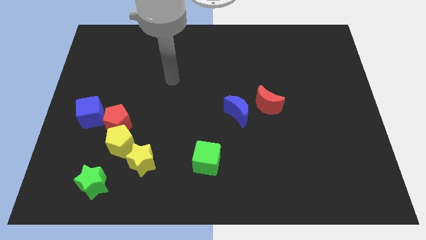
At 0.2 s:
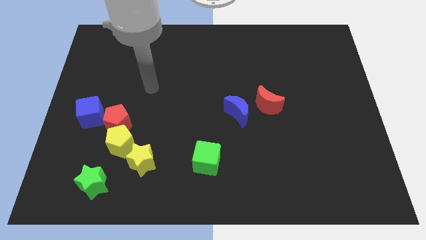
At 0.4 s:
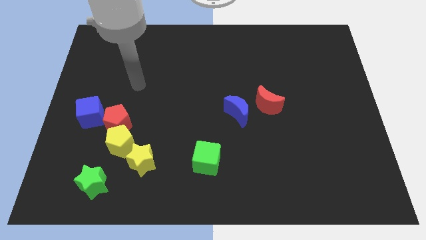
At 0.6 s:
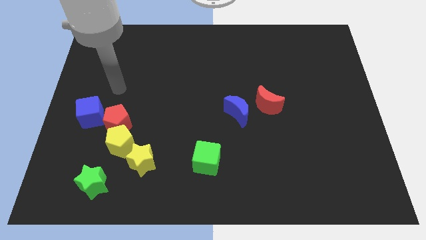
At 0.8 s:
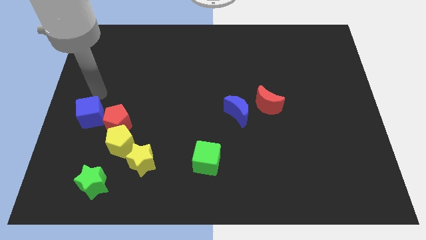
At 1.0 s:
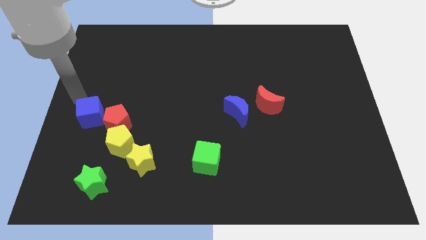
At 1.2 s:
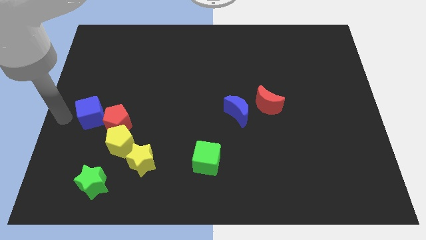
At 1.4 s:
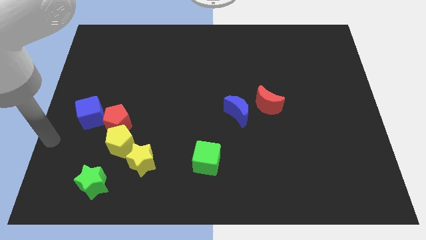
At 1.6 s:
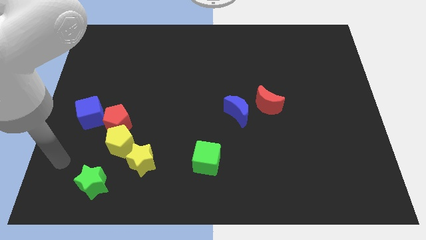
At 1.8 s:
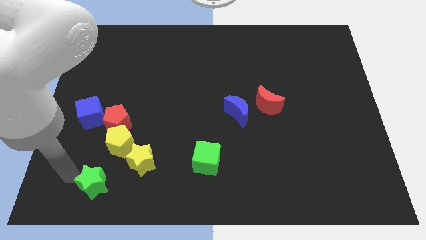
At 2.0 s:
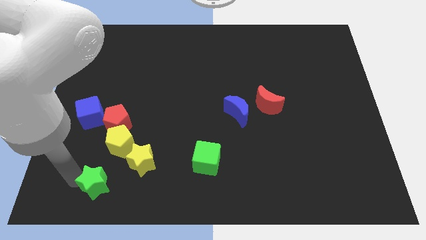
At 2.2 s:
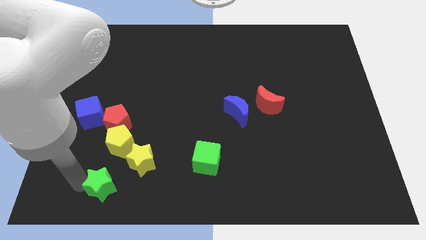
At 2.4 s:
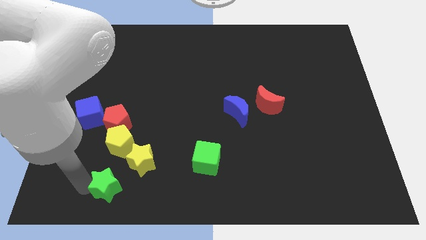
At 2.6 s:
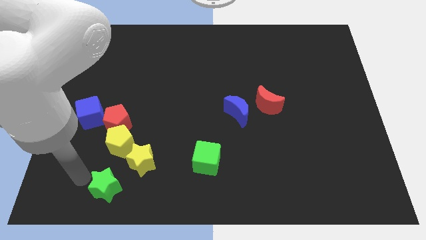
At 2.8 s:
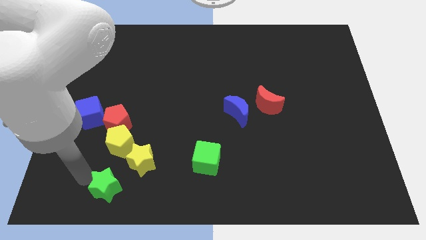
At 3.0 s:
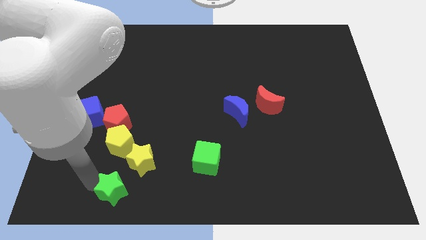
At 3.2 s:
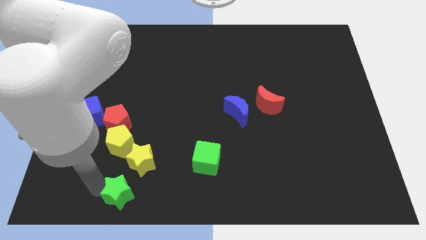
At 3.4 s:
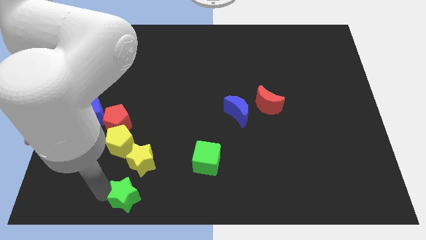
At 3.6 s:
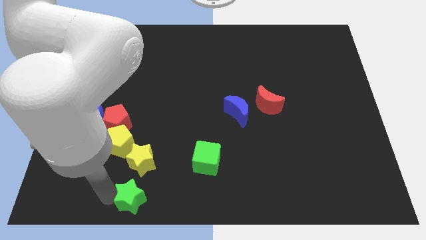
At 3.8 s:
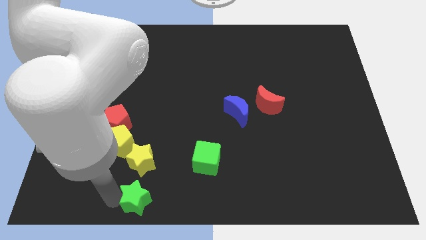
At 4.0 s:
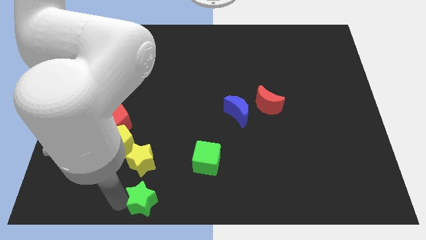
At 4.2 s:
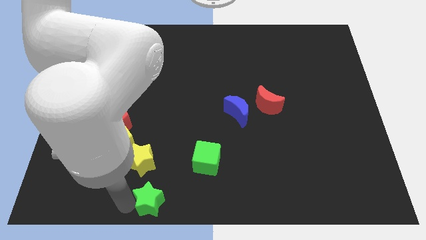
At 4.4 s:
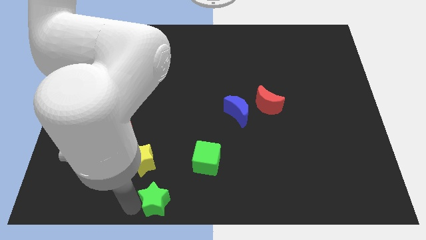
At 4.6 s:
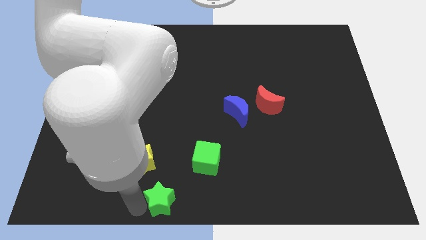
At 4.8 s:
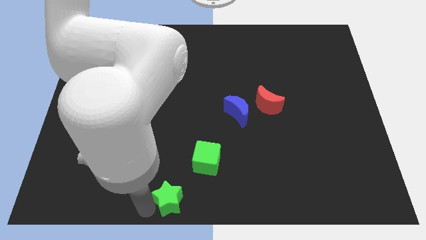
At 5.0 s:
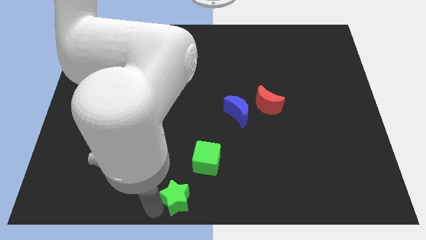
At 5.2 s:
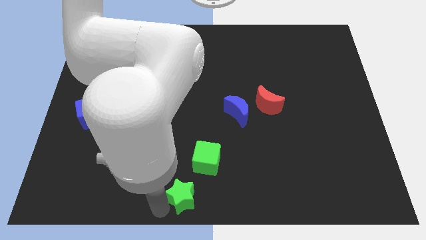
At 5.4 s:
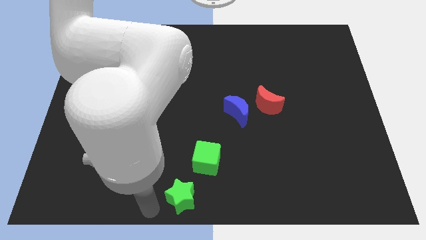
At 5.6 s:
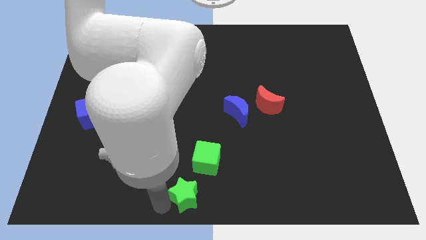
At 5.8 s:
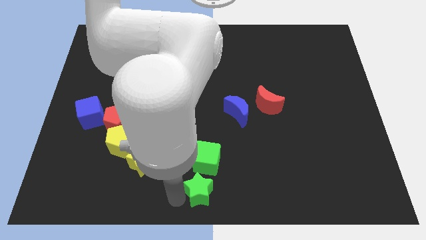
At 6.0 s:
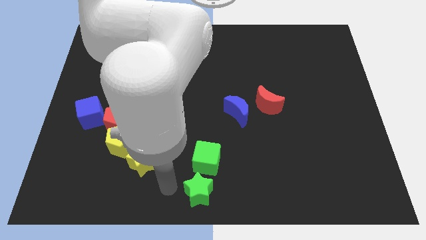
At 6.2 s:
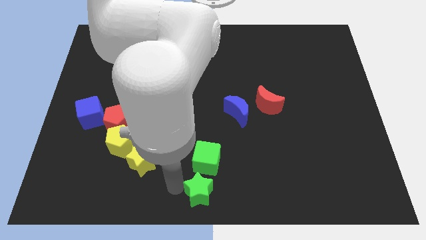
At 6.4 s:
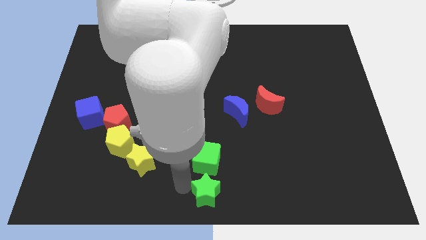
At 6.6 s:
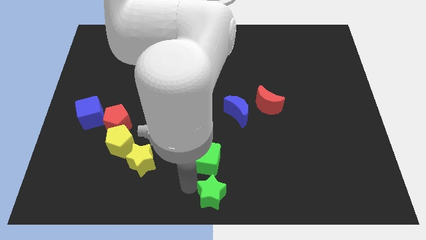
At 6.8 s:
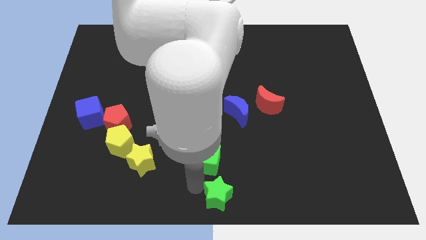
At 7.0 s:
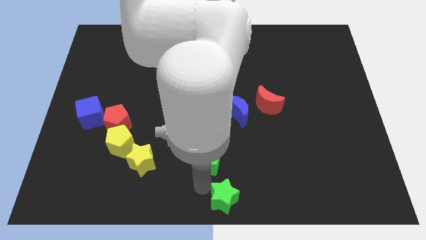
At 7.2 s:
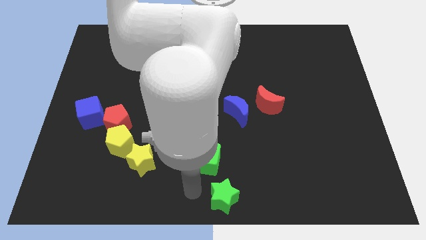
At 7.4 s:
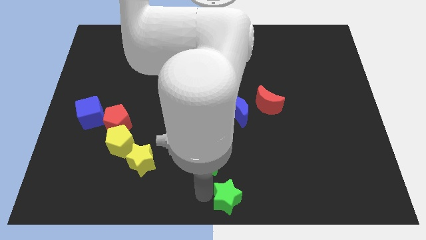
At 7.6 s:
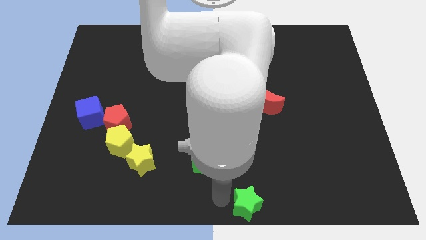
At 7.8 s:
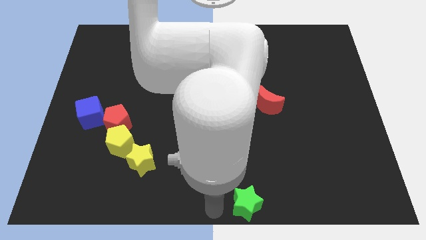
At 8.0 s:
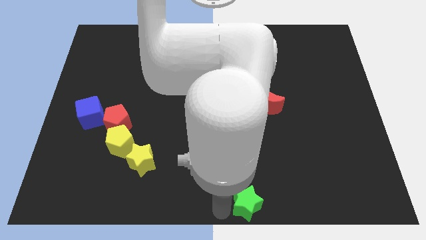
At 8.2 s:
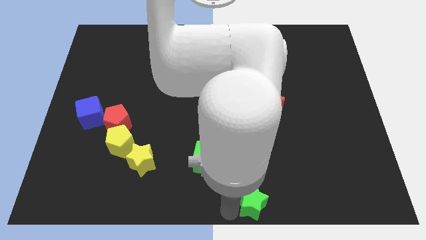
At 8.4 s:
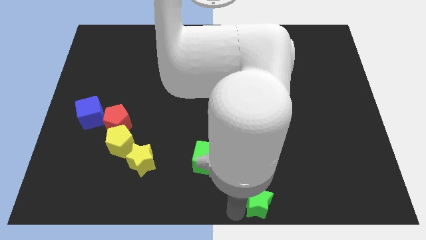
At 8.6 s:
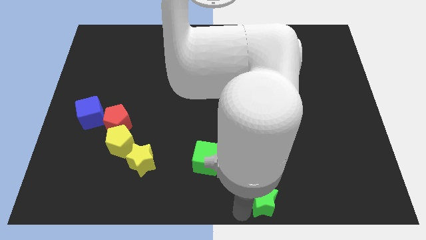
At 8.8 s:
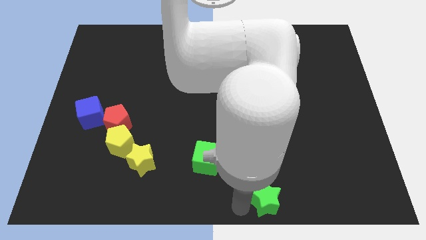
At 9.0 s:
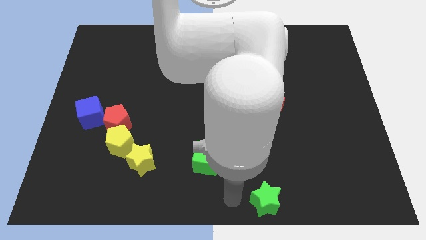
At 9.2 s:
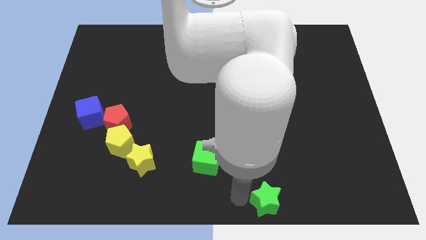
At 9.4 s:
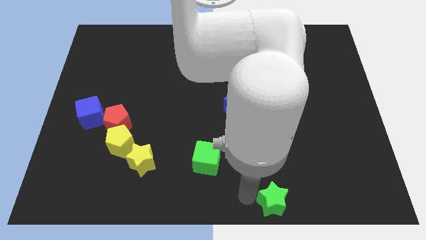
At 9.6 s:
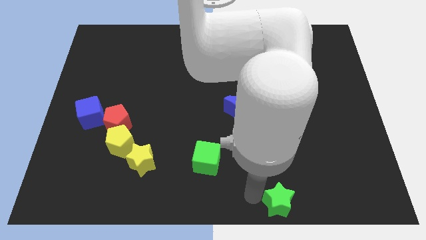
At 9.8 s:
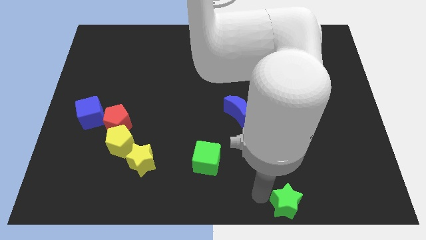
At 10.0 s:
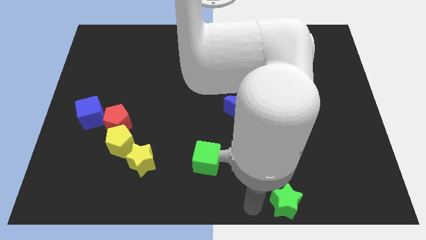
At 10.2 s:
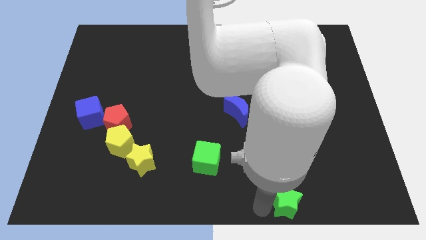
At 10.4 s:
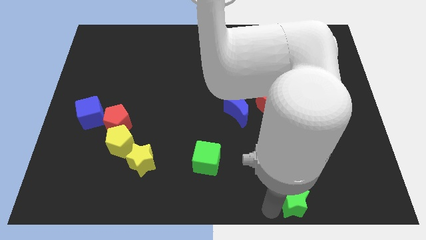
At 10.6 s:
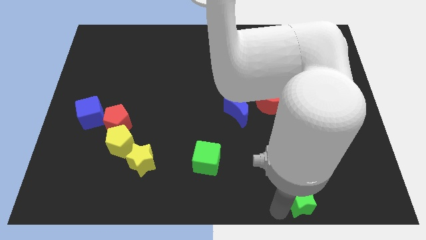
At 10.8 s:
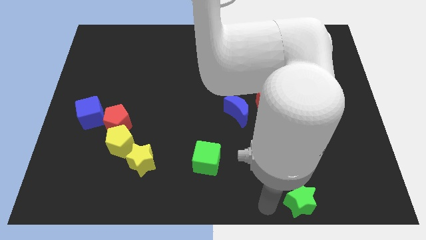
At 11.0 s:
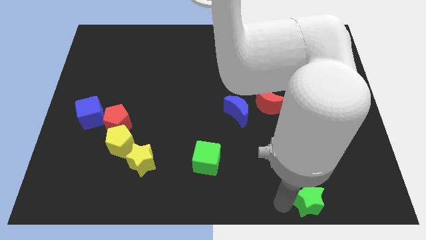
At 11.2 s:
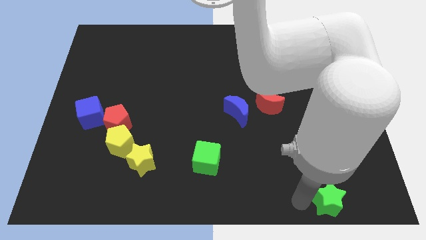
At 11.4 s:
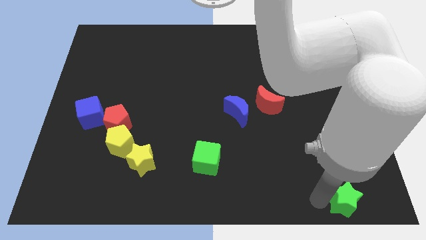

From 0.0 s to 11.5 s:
slide the green star to the bottom right
